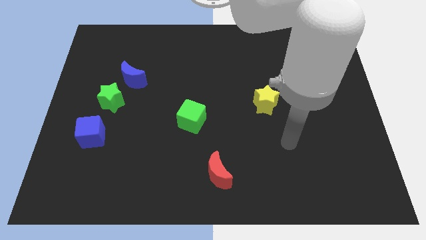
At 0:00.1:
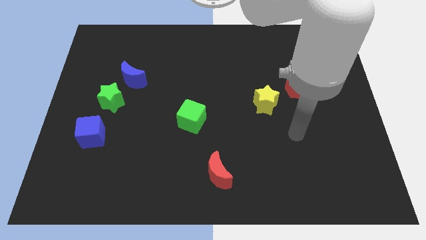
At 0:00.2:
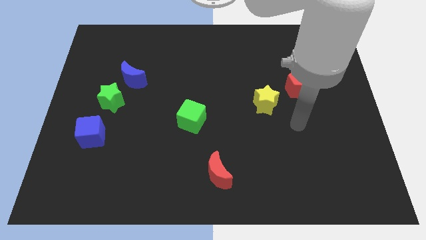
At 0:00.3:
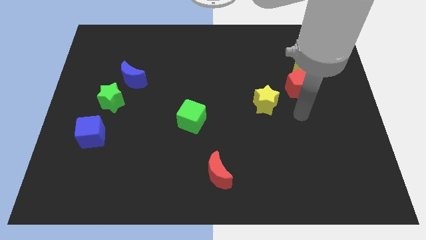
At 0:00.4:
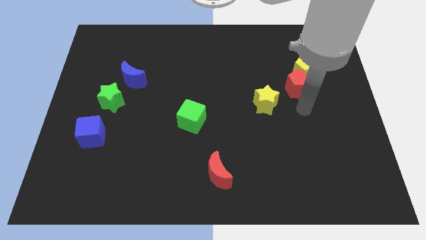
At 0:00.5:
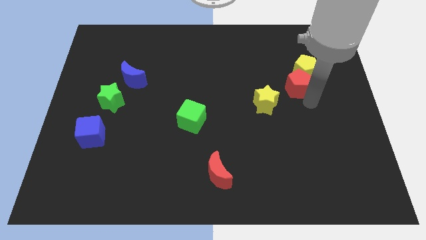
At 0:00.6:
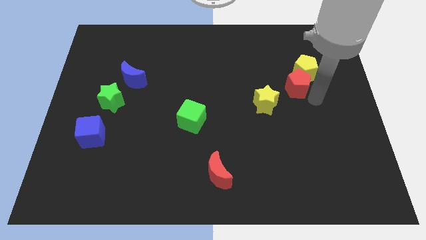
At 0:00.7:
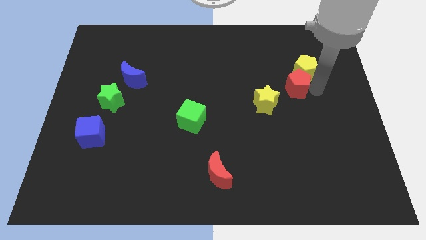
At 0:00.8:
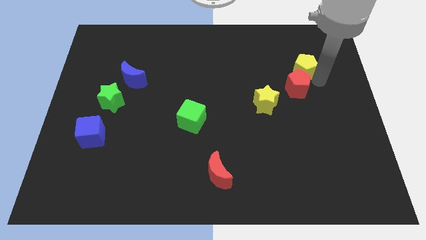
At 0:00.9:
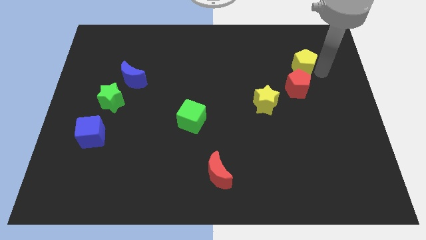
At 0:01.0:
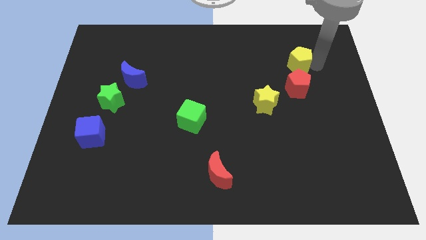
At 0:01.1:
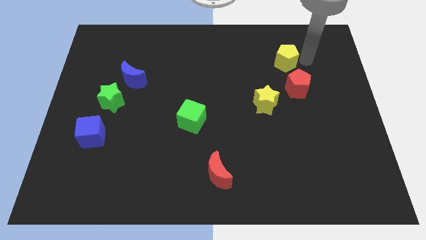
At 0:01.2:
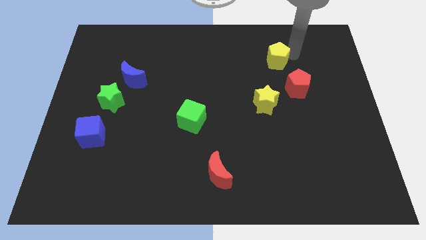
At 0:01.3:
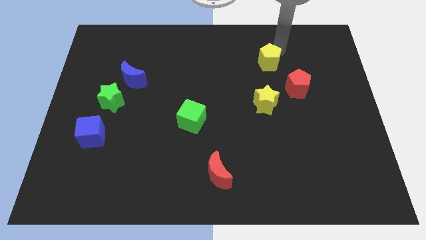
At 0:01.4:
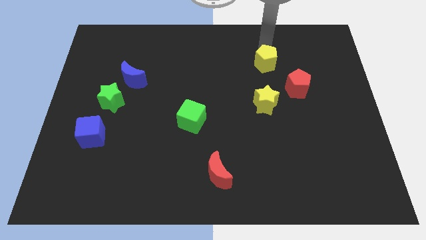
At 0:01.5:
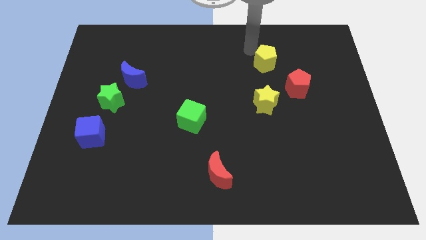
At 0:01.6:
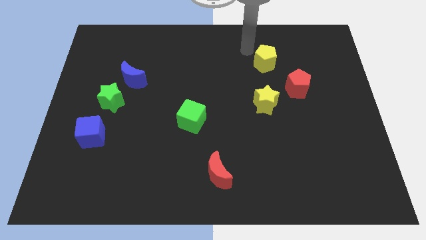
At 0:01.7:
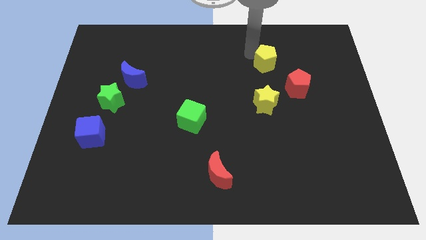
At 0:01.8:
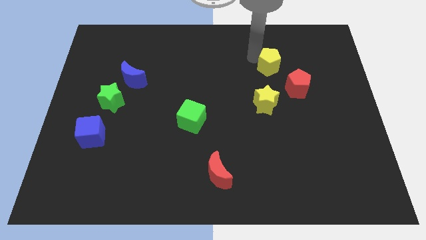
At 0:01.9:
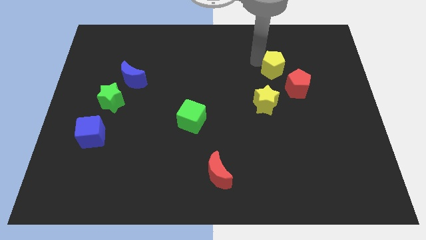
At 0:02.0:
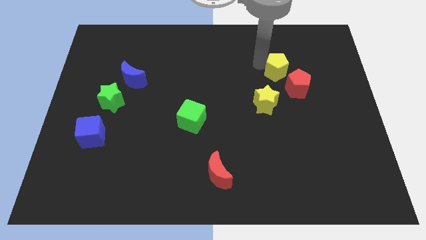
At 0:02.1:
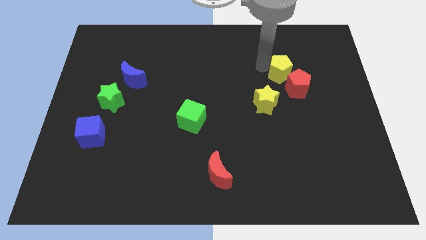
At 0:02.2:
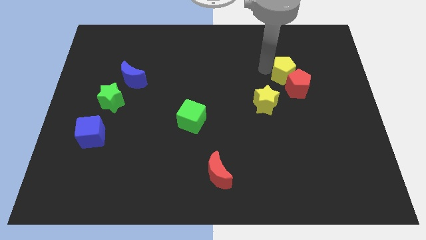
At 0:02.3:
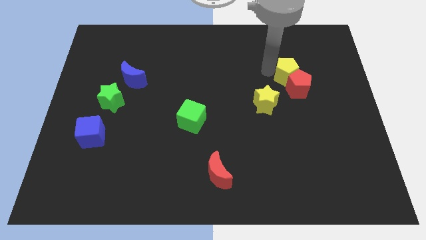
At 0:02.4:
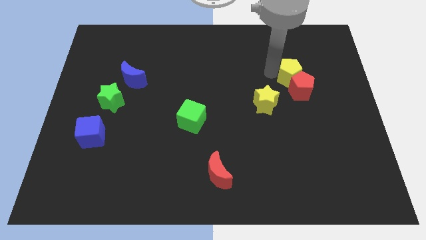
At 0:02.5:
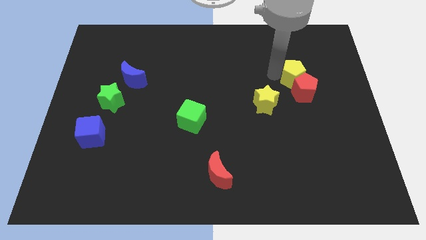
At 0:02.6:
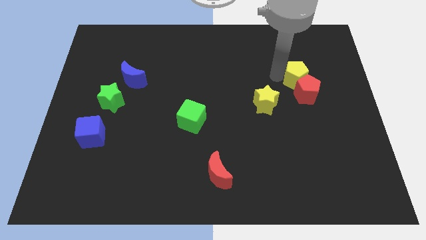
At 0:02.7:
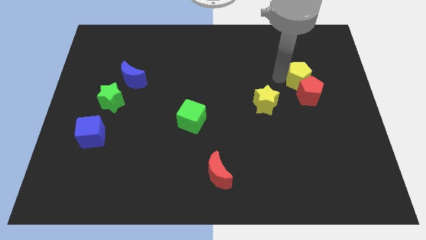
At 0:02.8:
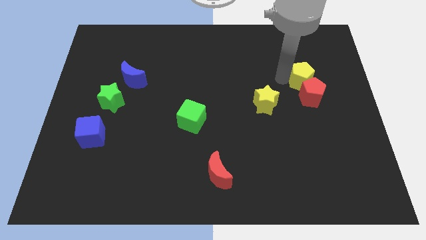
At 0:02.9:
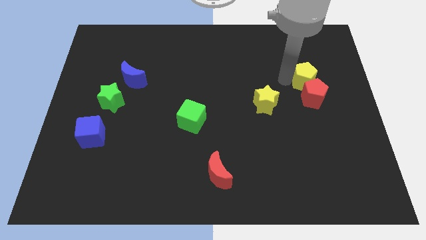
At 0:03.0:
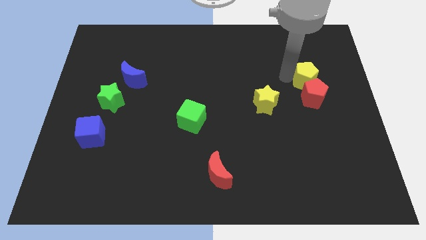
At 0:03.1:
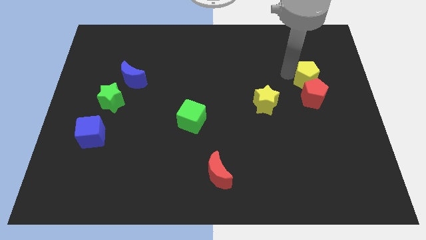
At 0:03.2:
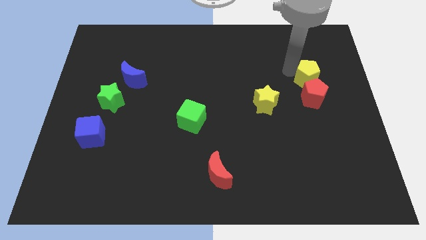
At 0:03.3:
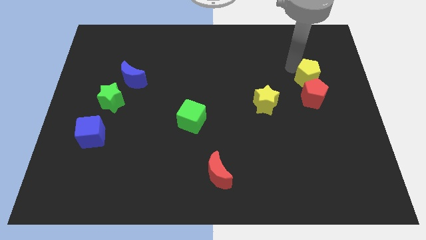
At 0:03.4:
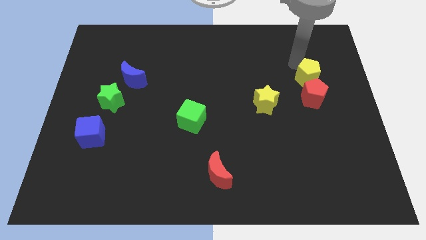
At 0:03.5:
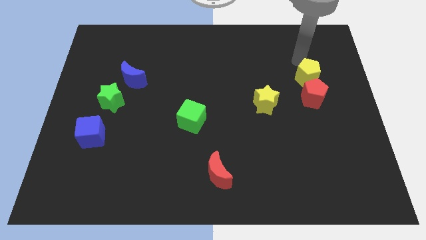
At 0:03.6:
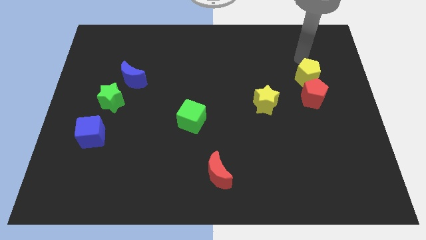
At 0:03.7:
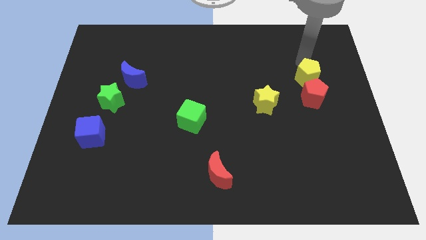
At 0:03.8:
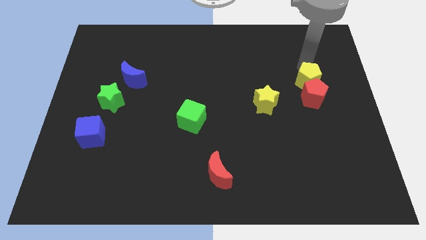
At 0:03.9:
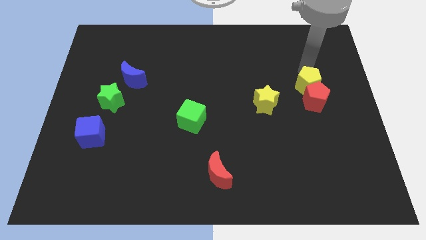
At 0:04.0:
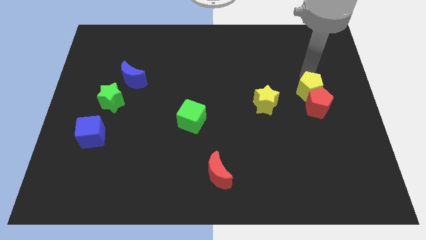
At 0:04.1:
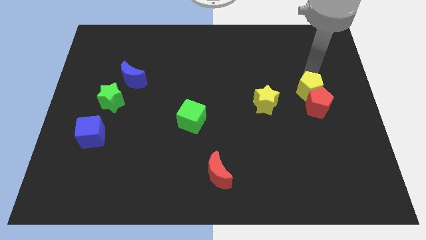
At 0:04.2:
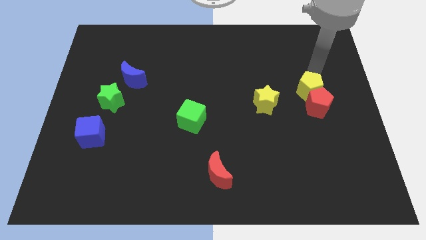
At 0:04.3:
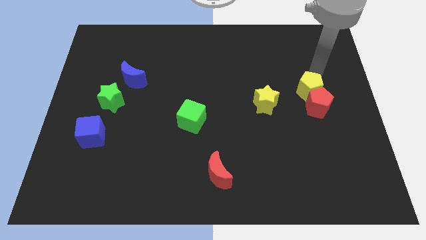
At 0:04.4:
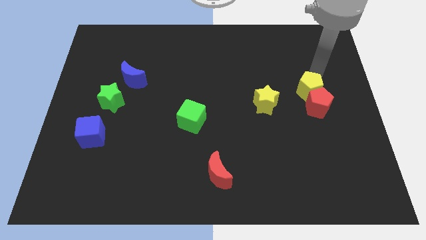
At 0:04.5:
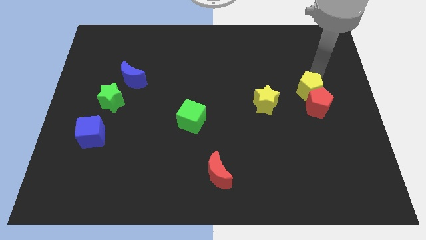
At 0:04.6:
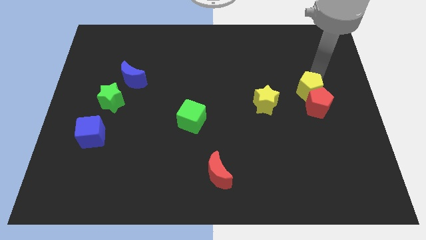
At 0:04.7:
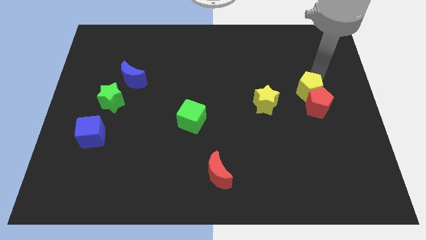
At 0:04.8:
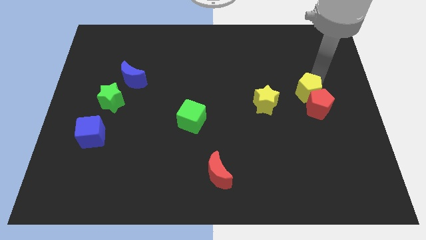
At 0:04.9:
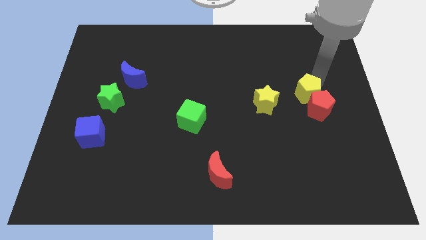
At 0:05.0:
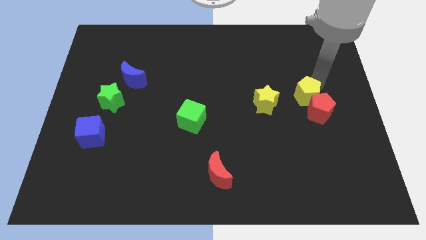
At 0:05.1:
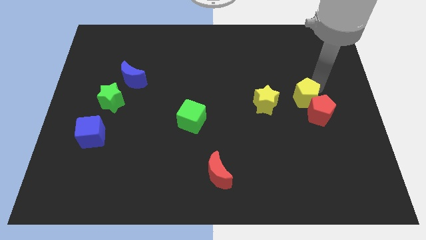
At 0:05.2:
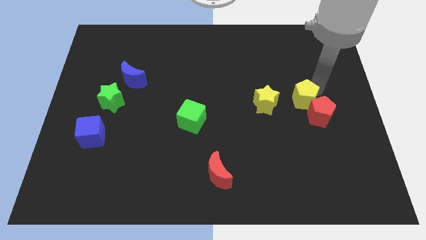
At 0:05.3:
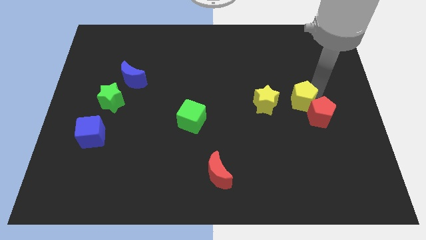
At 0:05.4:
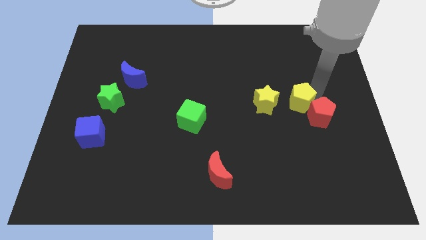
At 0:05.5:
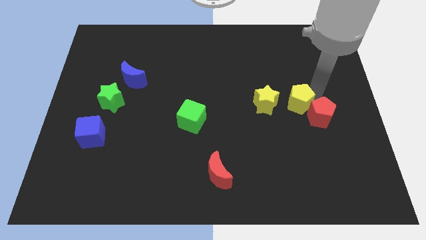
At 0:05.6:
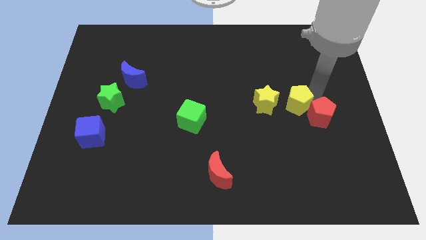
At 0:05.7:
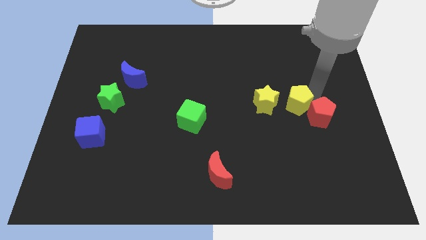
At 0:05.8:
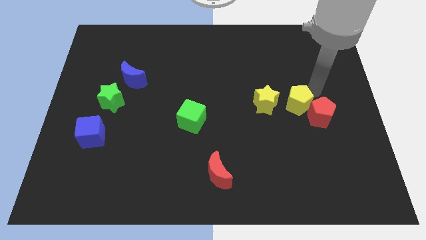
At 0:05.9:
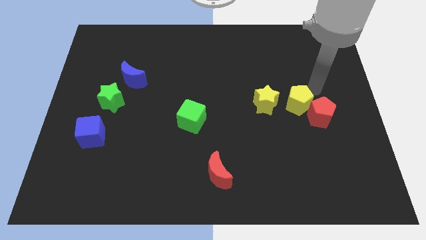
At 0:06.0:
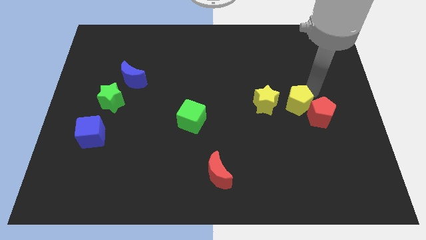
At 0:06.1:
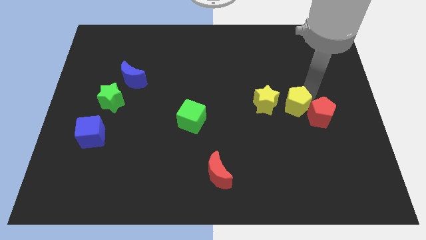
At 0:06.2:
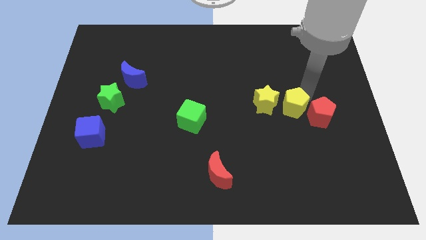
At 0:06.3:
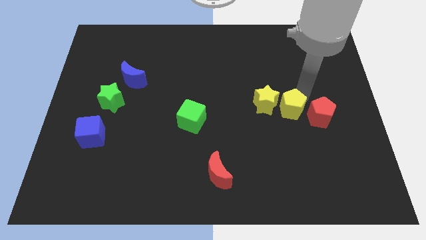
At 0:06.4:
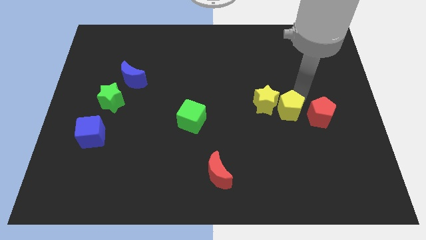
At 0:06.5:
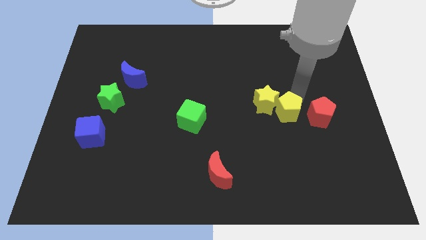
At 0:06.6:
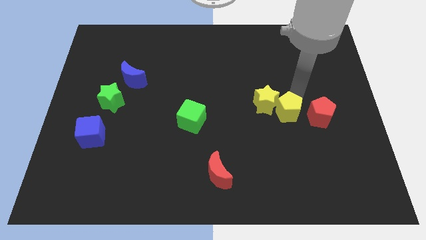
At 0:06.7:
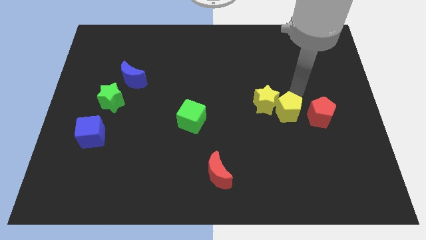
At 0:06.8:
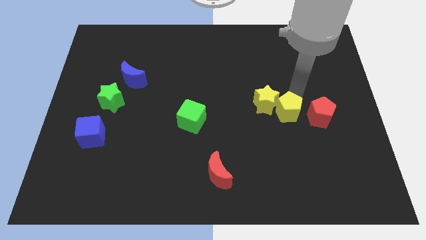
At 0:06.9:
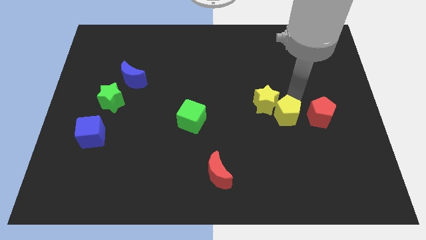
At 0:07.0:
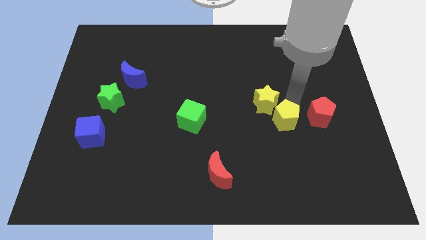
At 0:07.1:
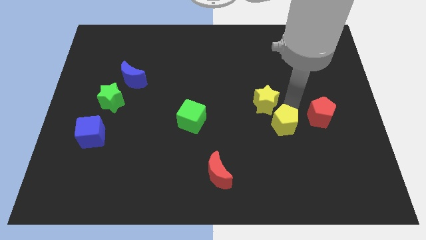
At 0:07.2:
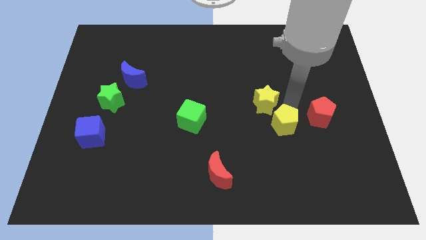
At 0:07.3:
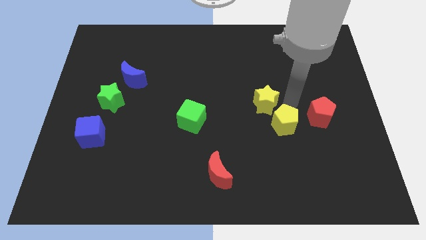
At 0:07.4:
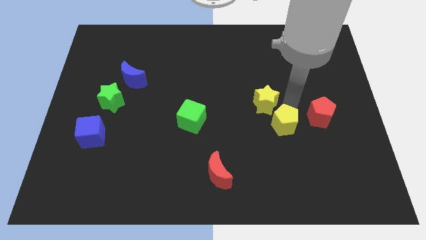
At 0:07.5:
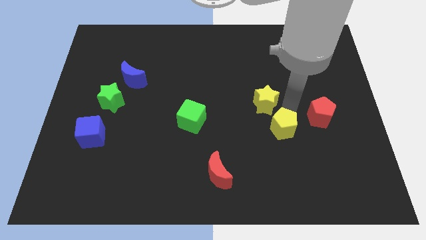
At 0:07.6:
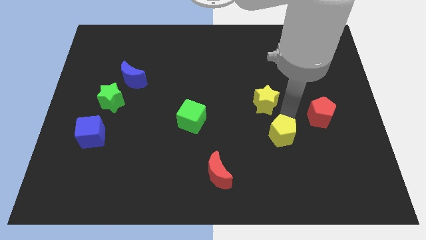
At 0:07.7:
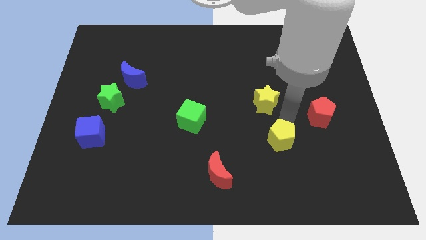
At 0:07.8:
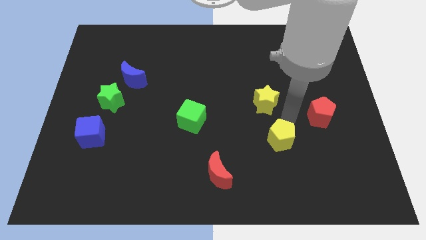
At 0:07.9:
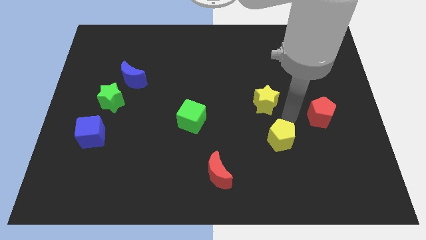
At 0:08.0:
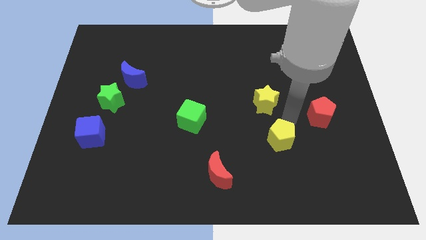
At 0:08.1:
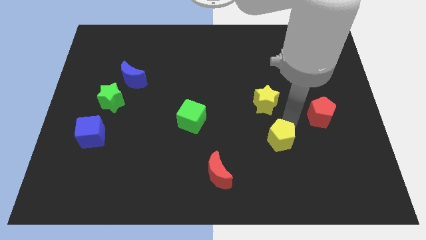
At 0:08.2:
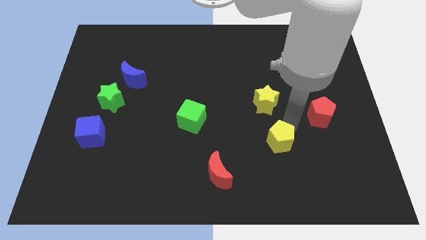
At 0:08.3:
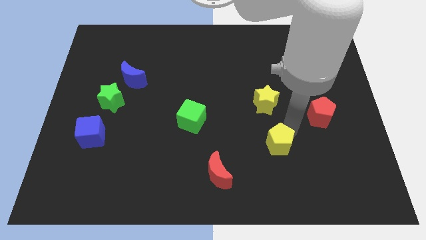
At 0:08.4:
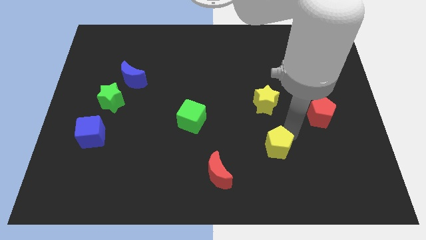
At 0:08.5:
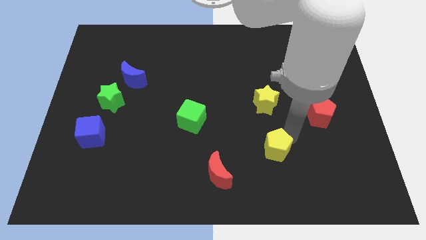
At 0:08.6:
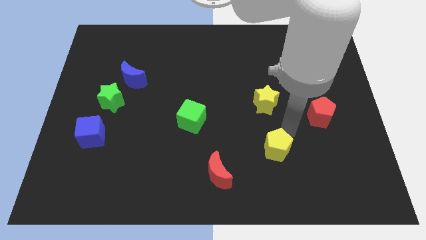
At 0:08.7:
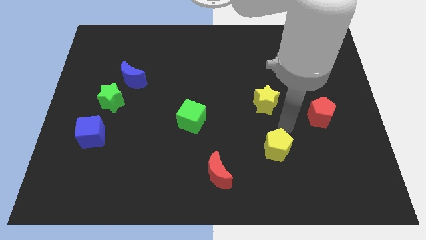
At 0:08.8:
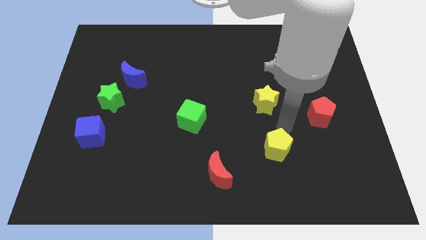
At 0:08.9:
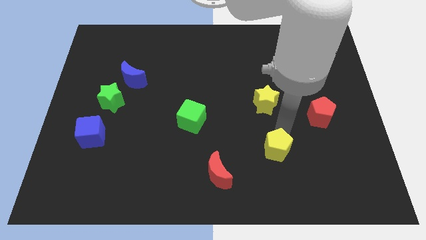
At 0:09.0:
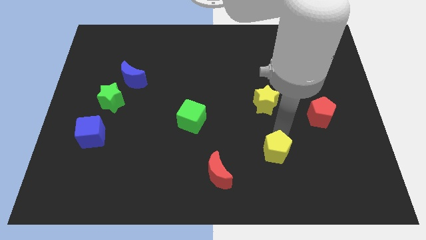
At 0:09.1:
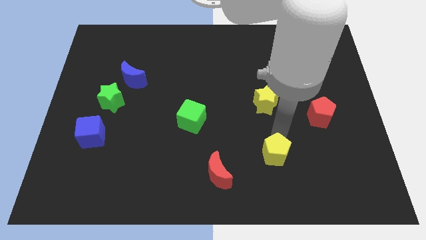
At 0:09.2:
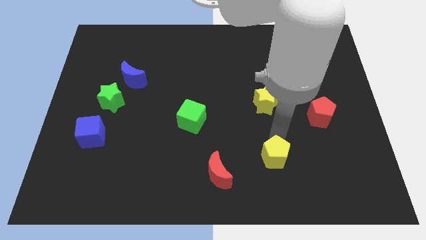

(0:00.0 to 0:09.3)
slide the yellow pentagon to the right of the red moon
